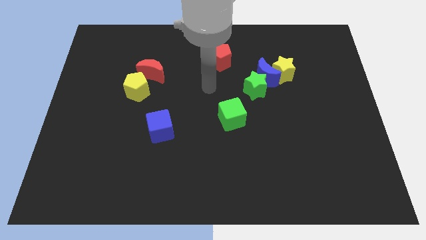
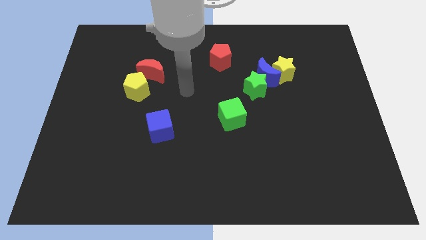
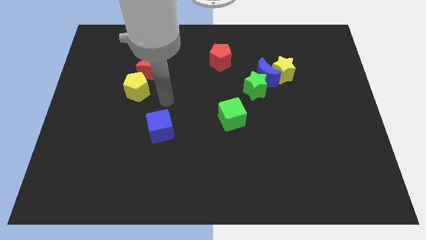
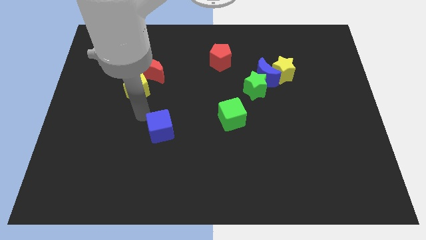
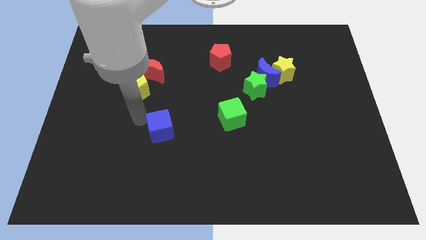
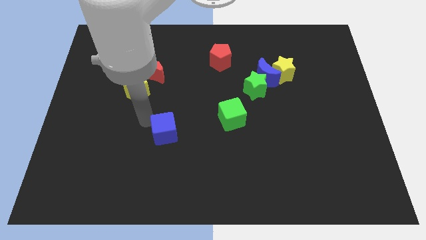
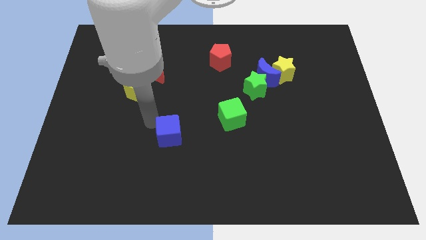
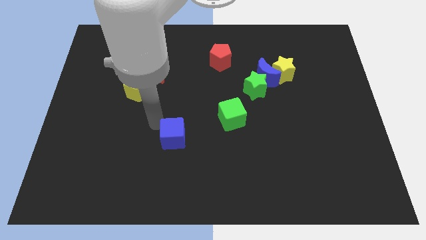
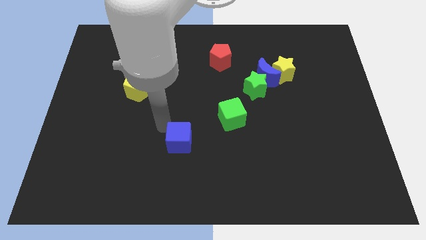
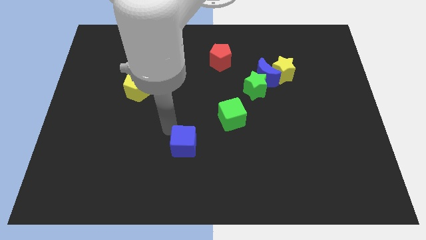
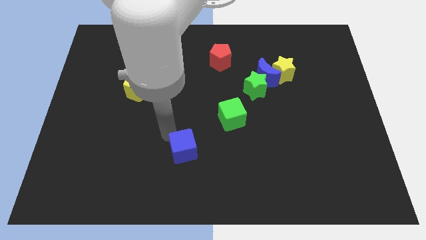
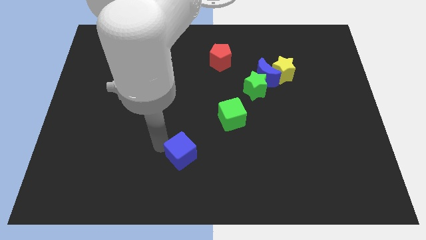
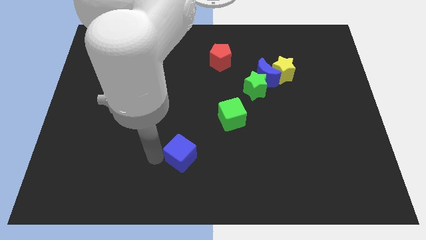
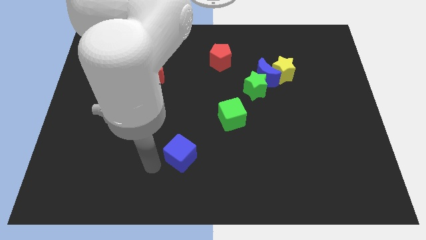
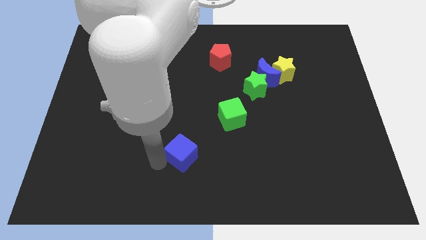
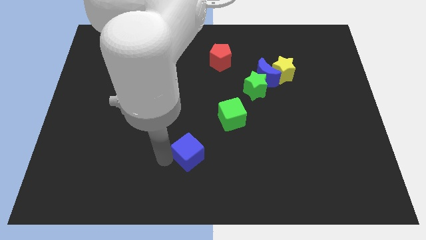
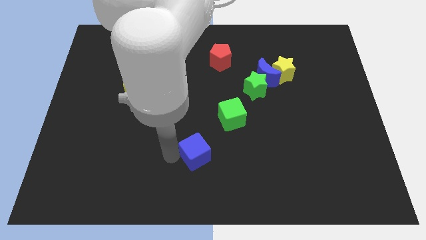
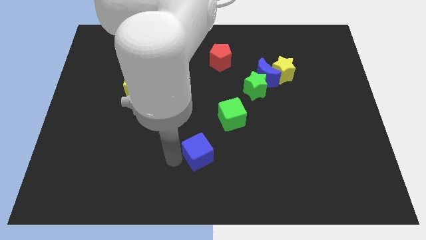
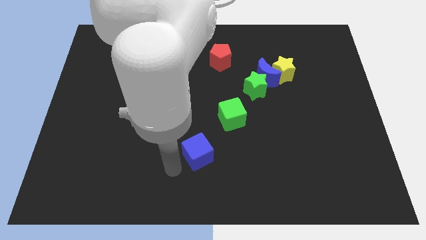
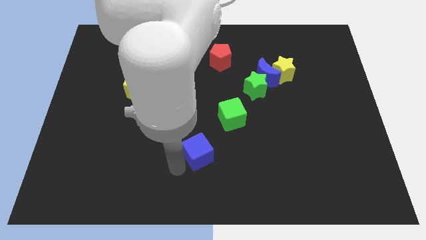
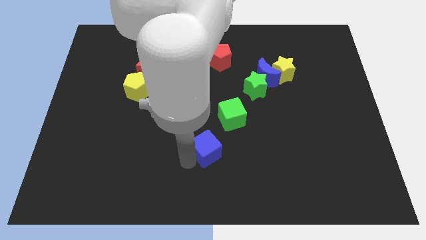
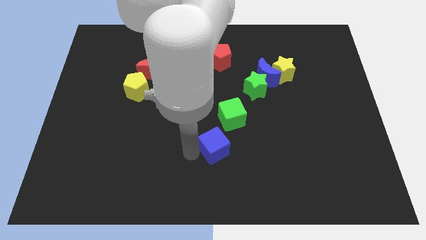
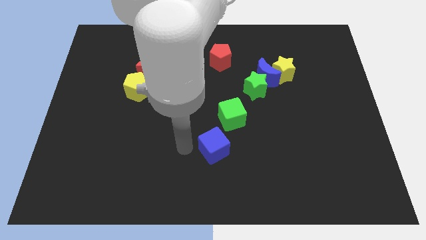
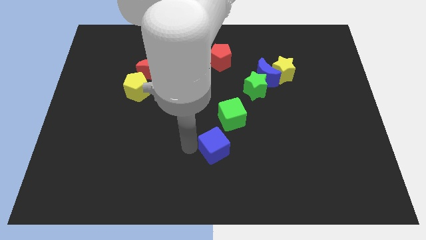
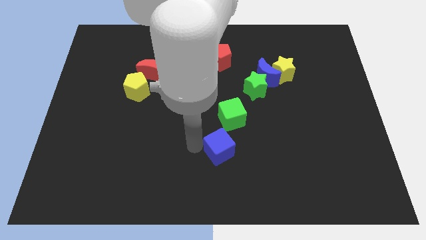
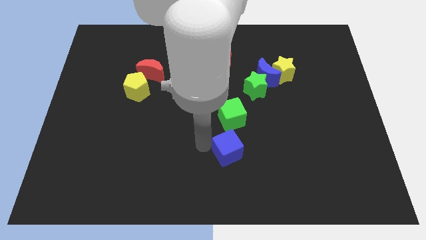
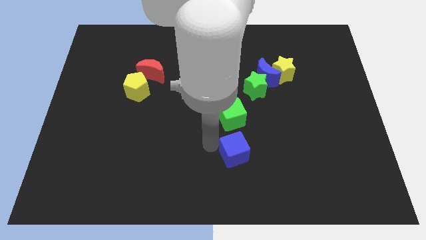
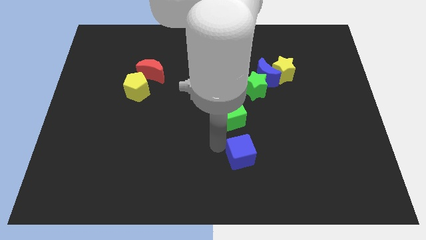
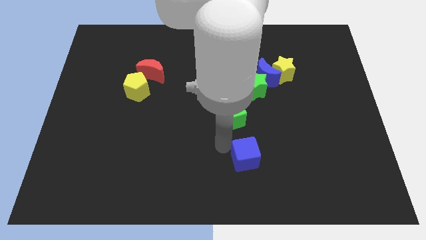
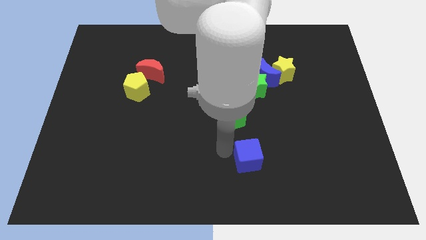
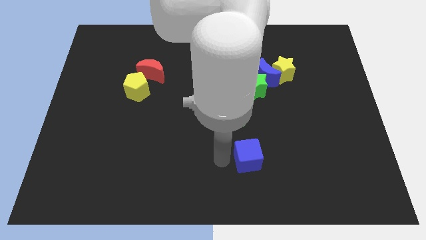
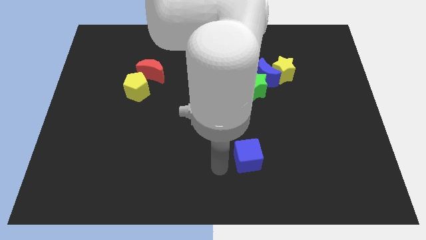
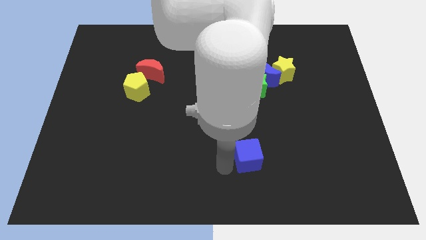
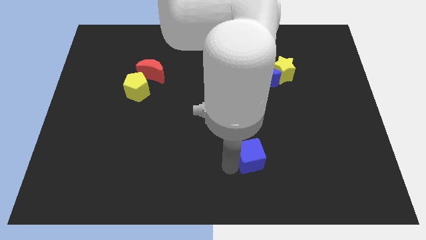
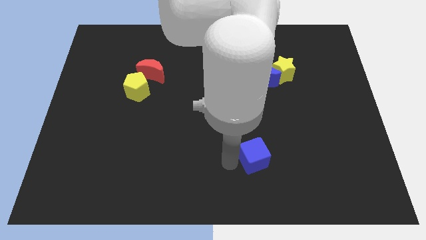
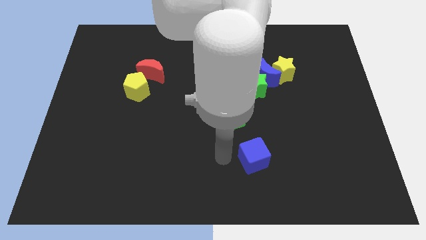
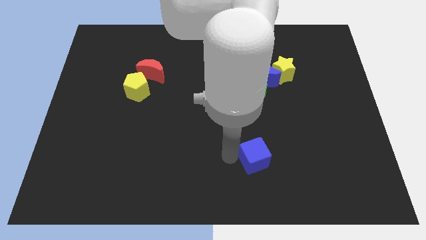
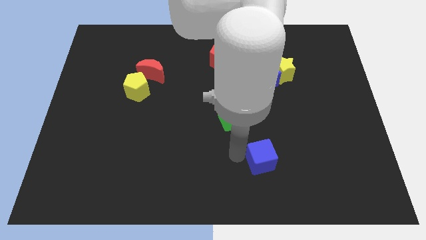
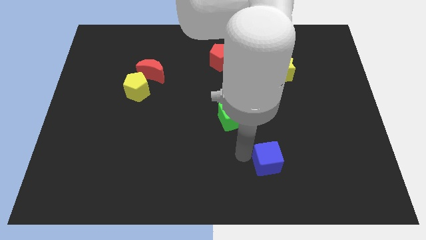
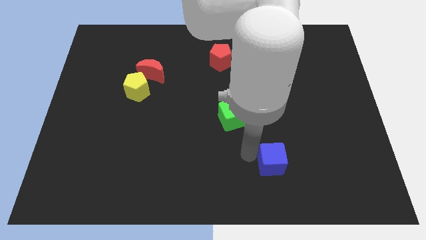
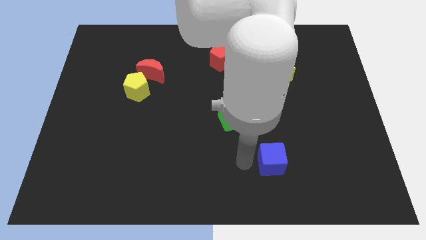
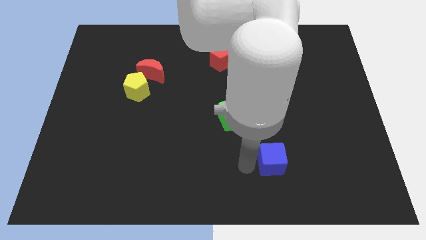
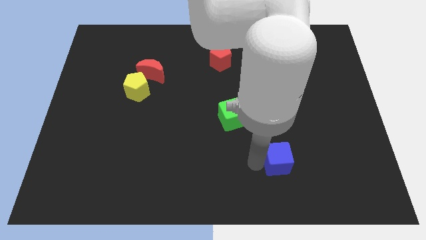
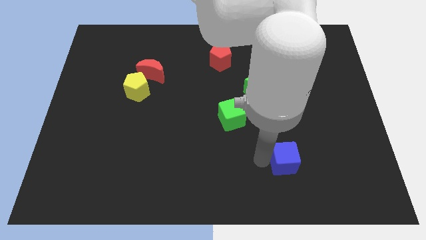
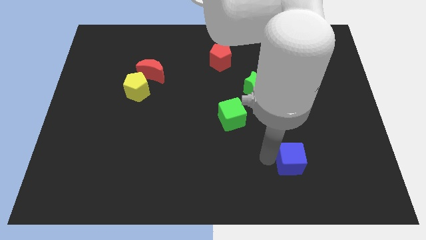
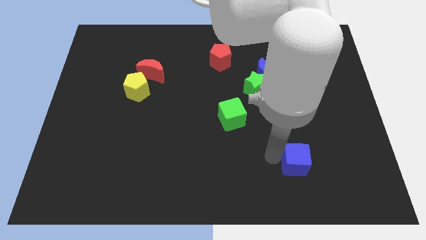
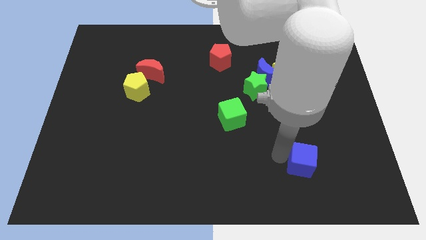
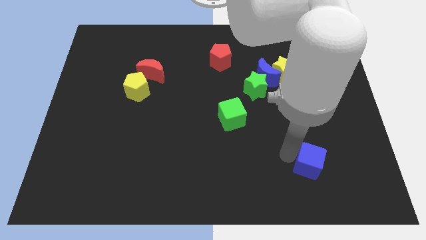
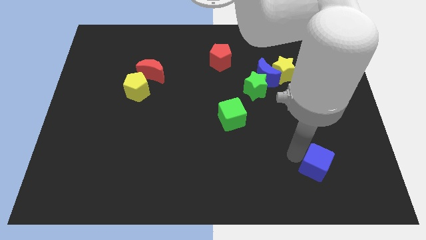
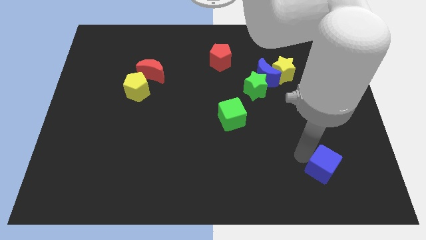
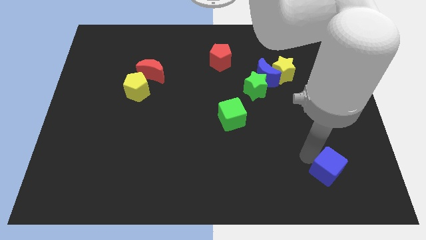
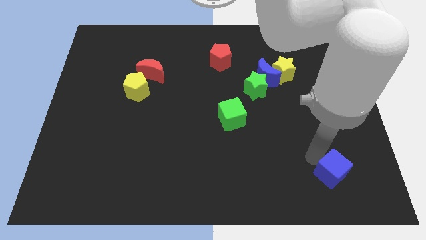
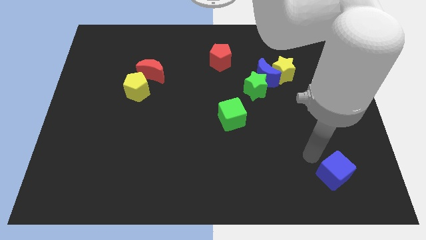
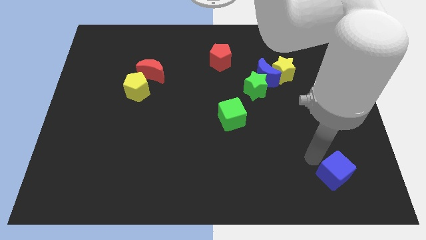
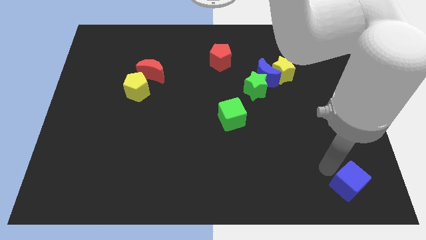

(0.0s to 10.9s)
slide the blue cube to the bottom right
